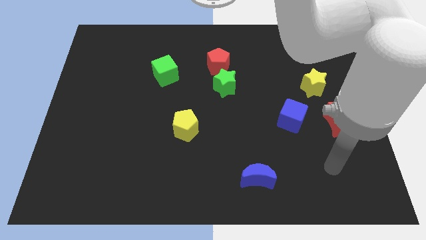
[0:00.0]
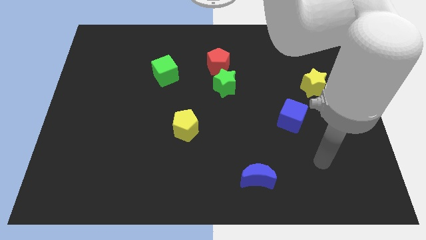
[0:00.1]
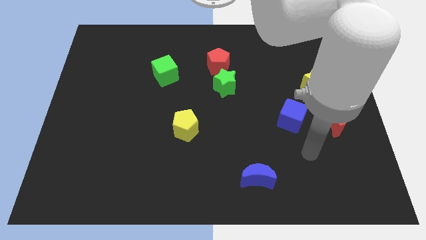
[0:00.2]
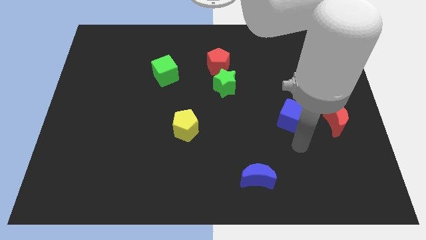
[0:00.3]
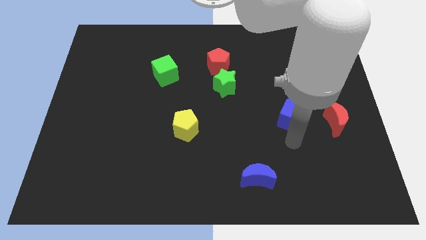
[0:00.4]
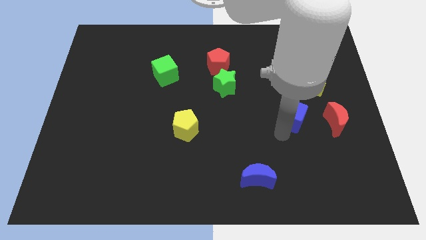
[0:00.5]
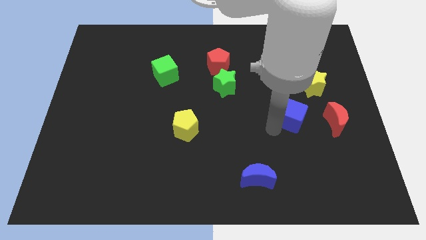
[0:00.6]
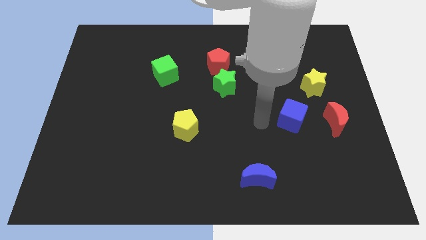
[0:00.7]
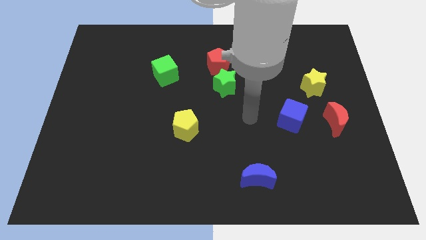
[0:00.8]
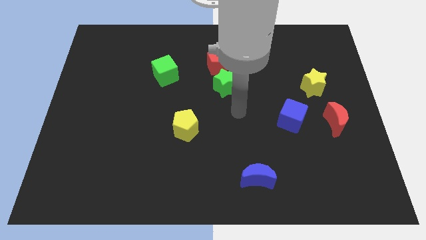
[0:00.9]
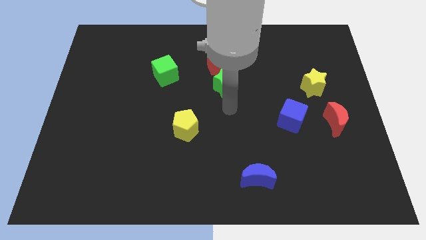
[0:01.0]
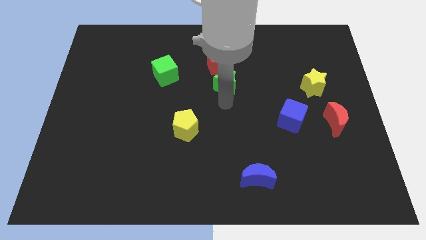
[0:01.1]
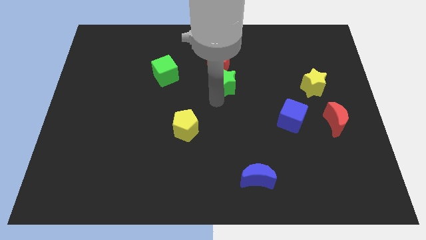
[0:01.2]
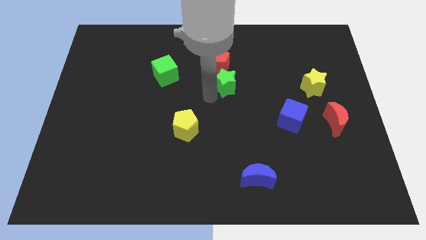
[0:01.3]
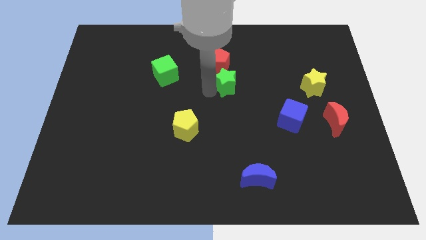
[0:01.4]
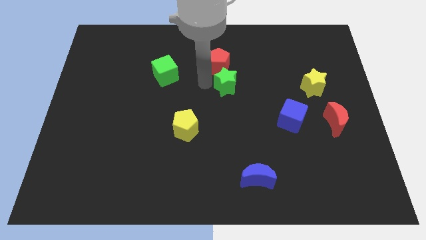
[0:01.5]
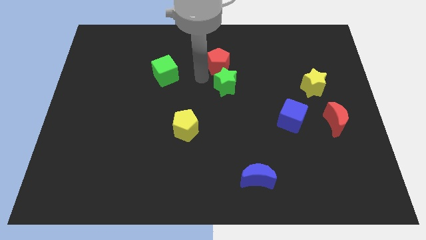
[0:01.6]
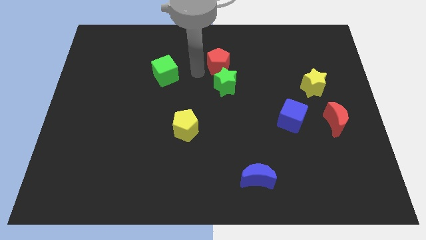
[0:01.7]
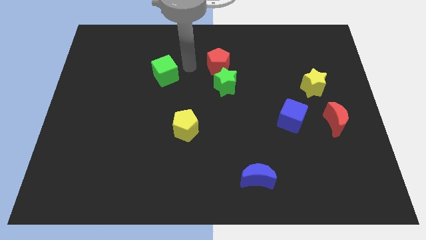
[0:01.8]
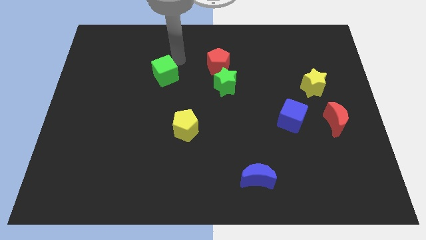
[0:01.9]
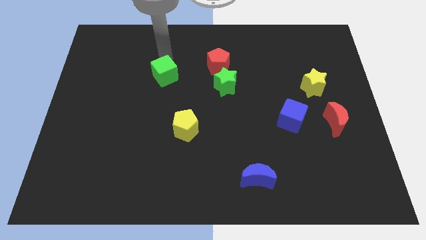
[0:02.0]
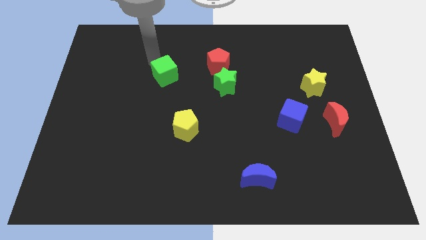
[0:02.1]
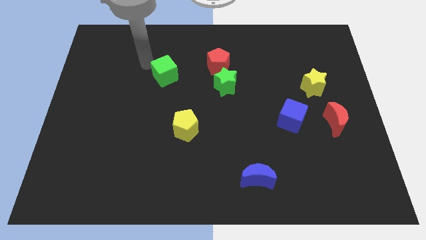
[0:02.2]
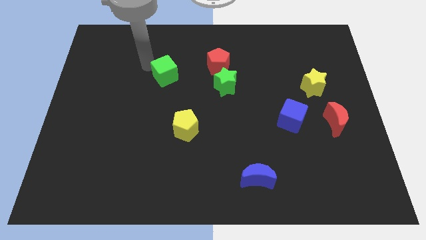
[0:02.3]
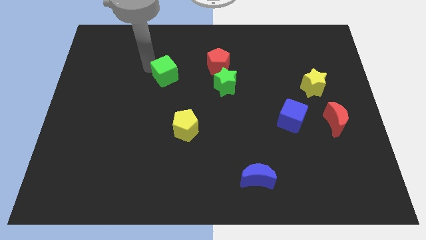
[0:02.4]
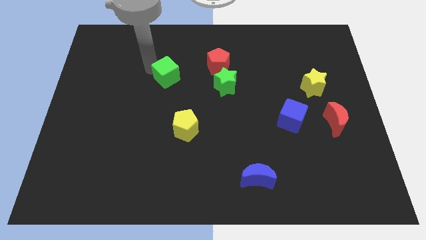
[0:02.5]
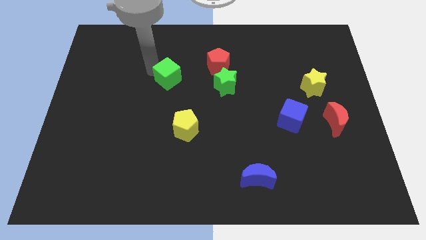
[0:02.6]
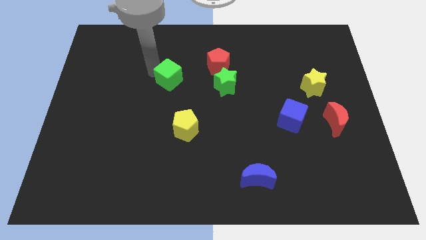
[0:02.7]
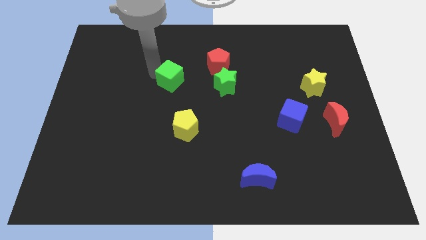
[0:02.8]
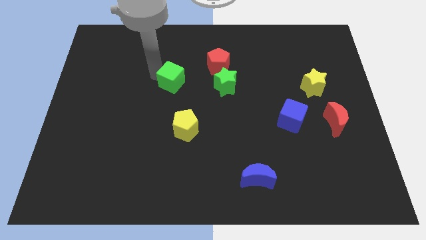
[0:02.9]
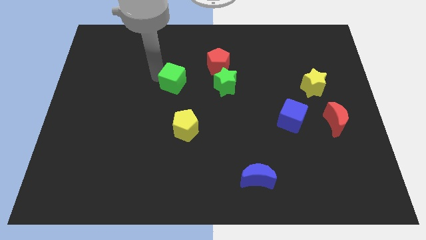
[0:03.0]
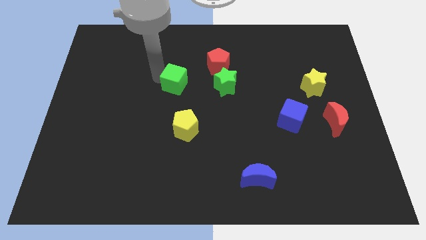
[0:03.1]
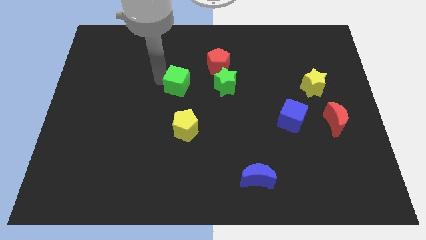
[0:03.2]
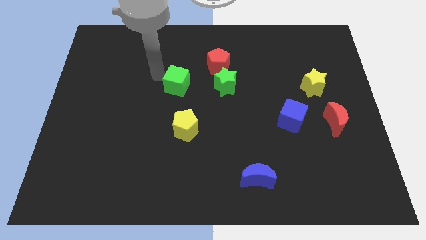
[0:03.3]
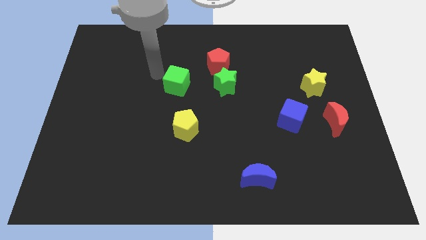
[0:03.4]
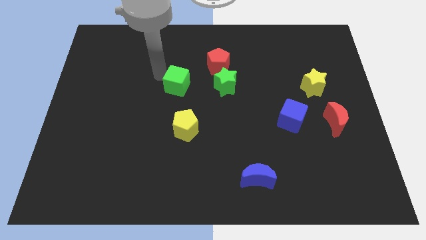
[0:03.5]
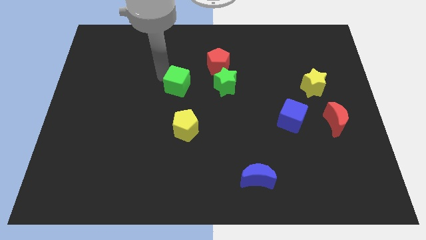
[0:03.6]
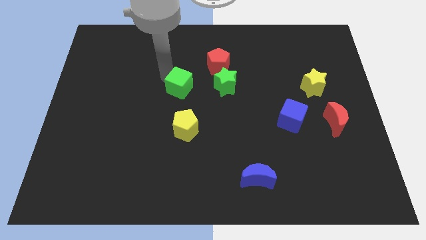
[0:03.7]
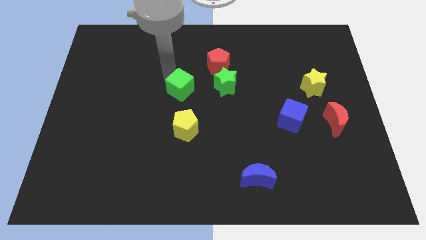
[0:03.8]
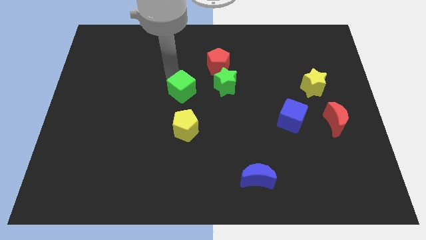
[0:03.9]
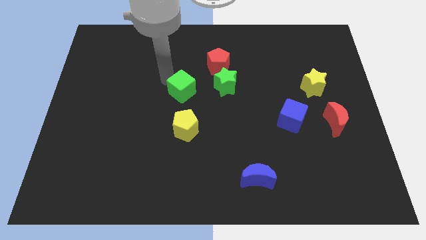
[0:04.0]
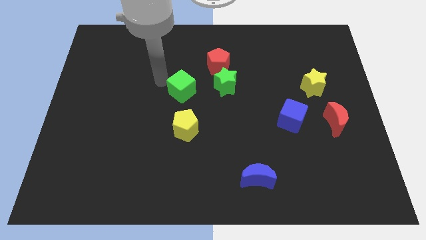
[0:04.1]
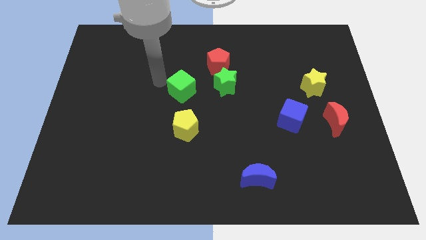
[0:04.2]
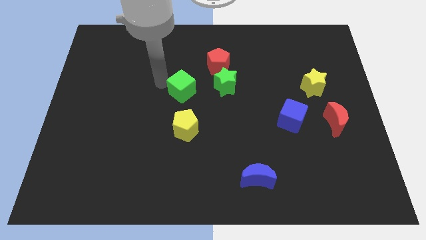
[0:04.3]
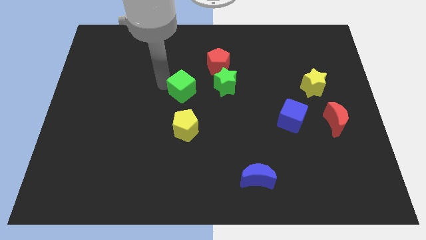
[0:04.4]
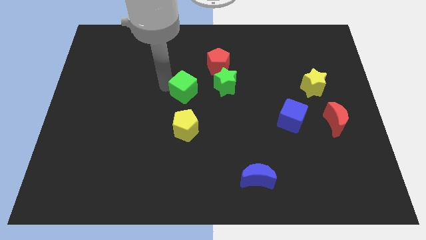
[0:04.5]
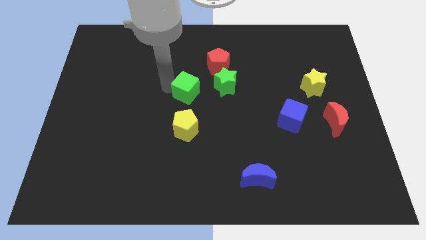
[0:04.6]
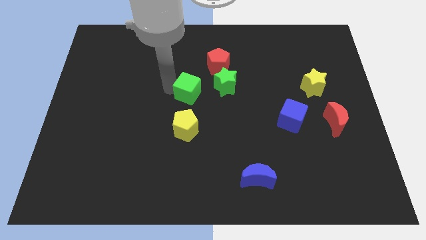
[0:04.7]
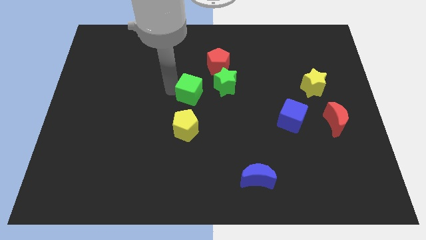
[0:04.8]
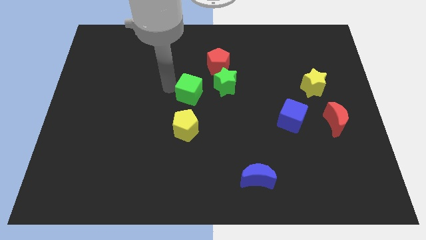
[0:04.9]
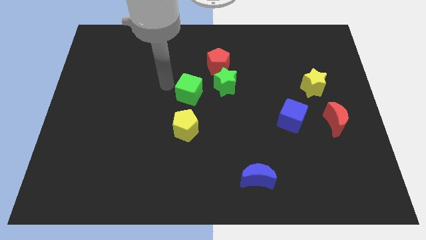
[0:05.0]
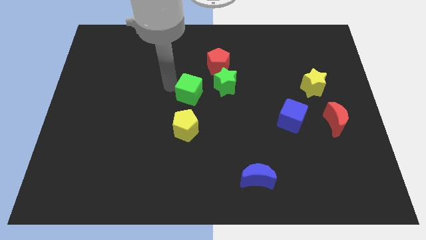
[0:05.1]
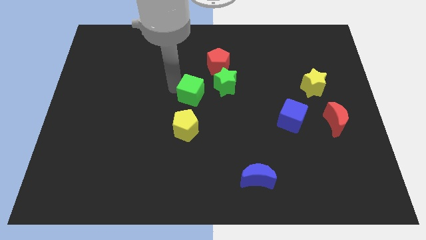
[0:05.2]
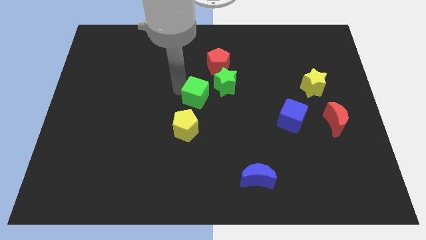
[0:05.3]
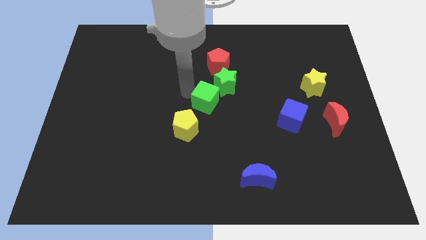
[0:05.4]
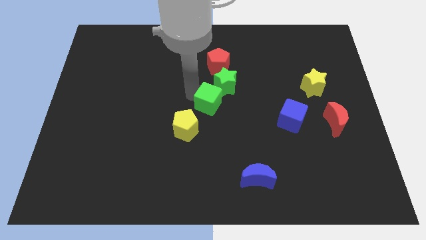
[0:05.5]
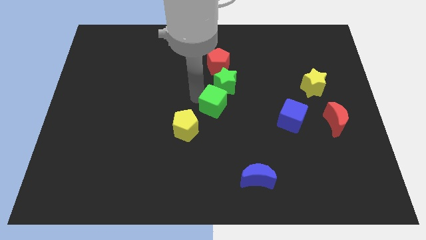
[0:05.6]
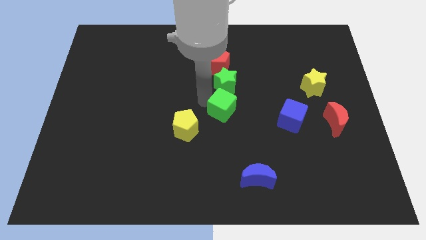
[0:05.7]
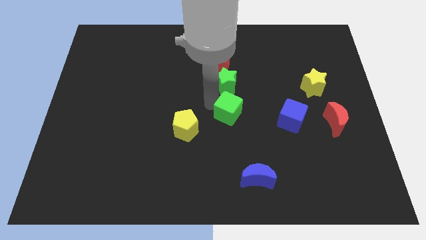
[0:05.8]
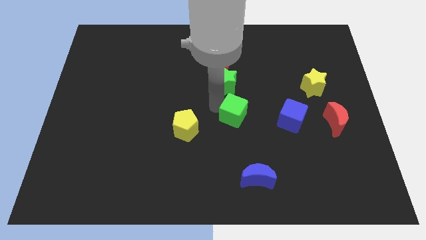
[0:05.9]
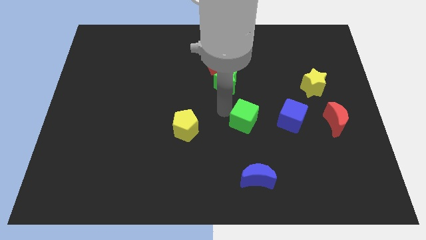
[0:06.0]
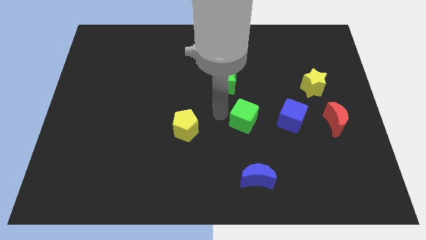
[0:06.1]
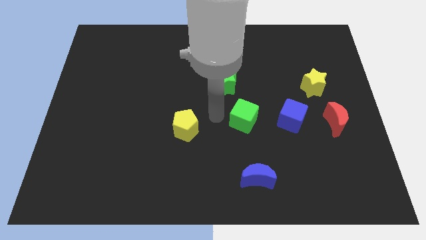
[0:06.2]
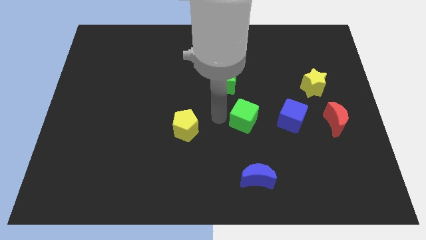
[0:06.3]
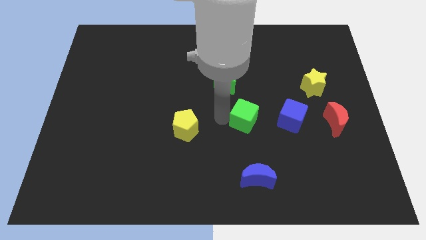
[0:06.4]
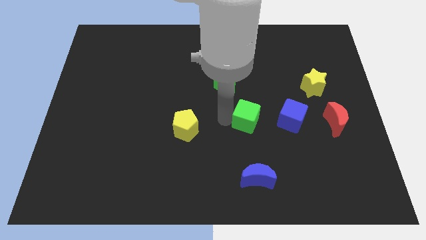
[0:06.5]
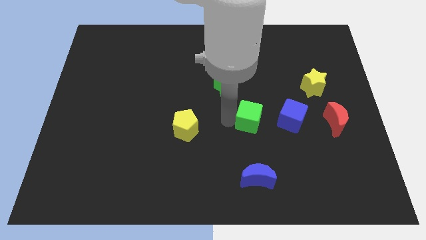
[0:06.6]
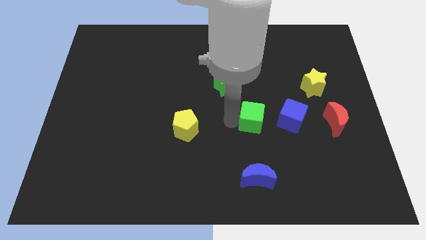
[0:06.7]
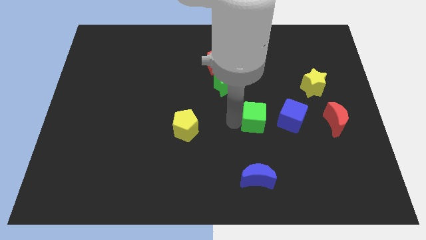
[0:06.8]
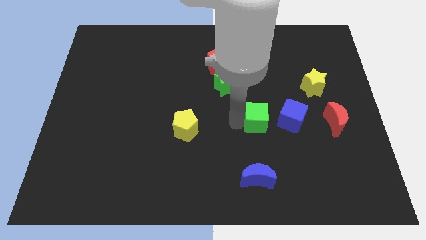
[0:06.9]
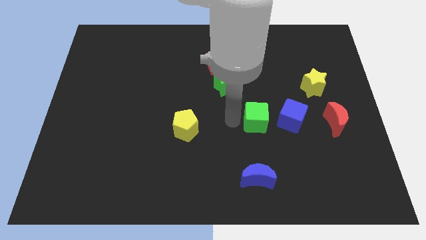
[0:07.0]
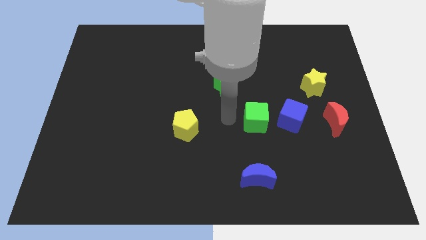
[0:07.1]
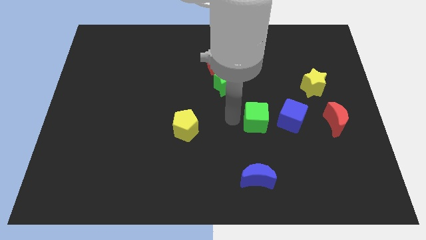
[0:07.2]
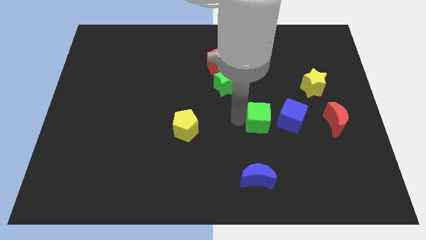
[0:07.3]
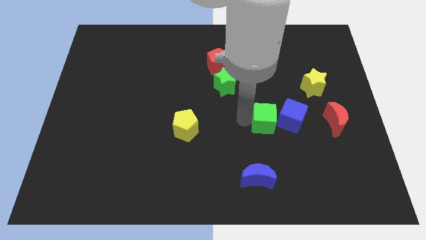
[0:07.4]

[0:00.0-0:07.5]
move the green cube just left of the red moon
